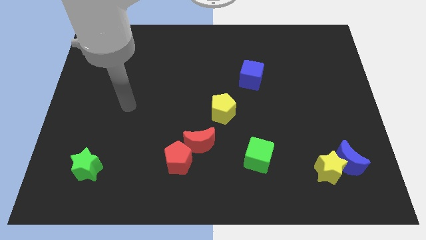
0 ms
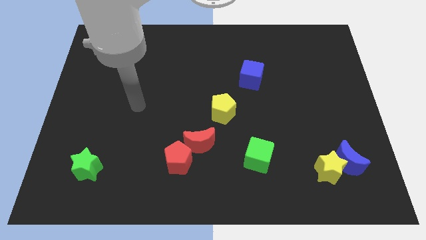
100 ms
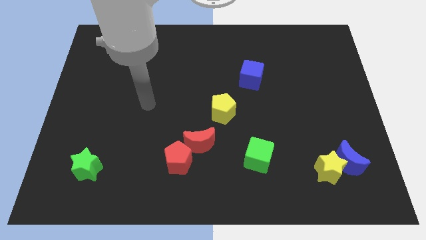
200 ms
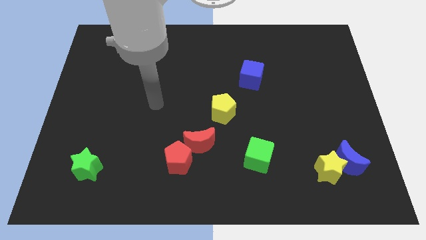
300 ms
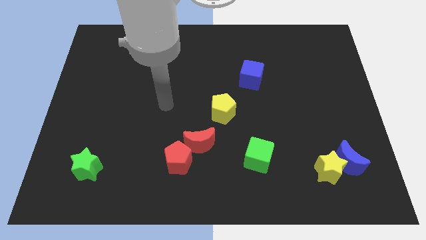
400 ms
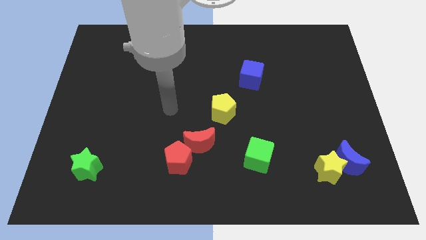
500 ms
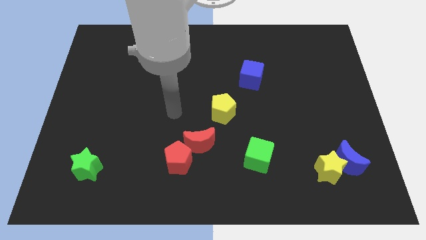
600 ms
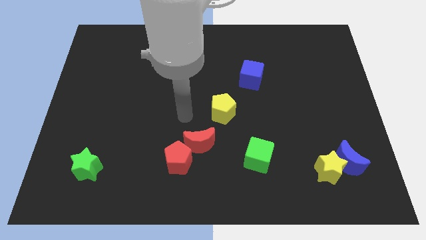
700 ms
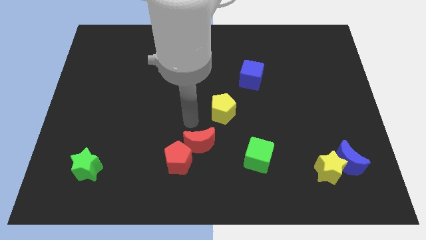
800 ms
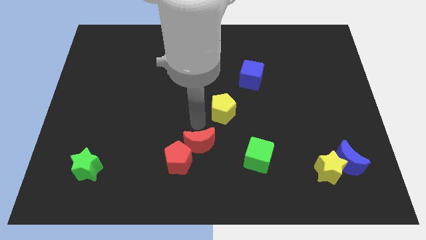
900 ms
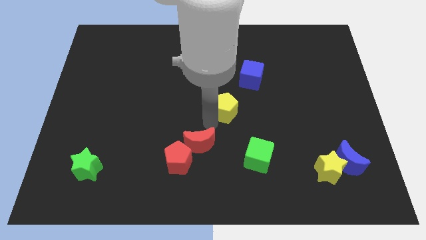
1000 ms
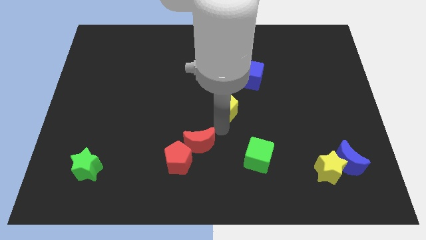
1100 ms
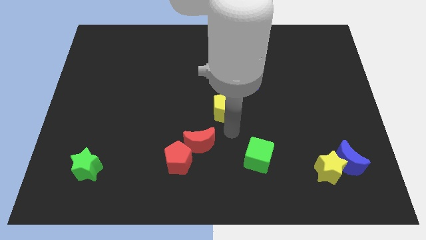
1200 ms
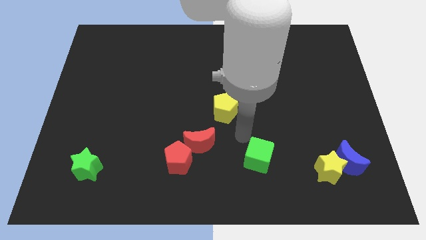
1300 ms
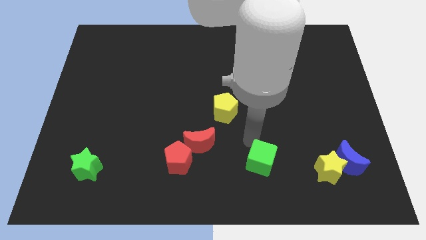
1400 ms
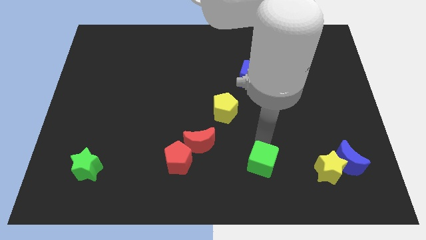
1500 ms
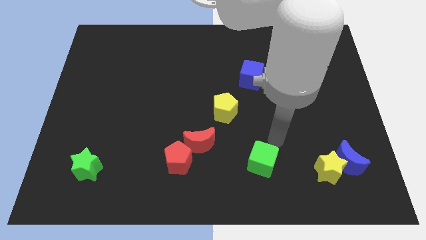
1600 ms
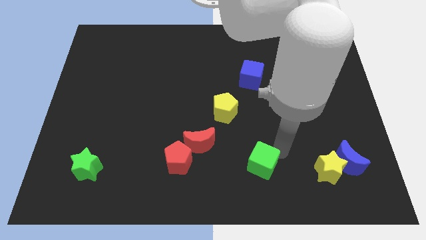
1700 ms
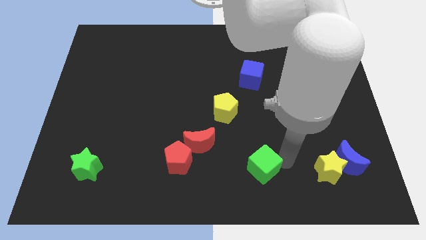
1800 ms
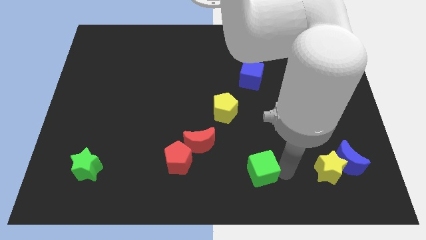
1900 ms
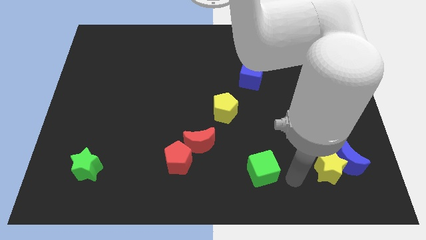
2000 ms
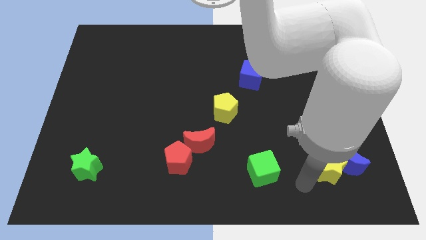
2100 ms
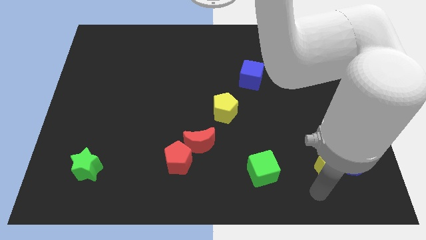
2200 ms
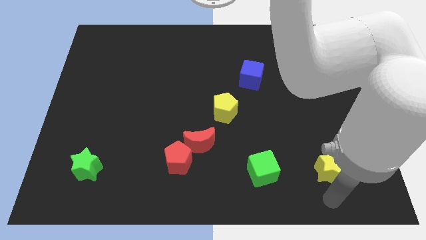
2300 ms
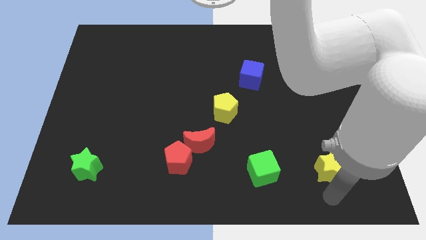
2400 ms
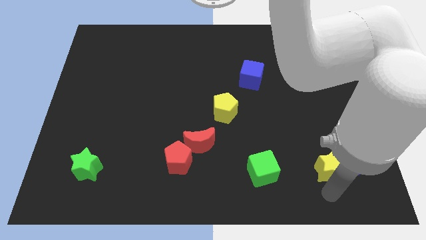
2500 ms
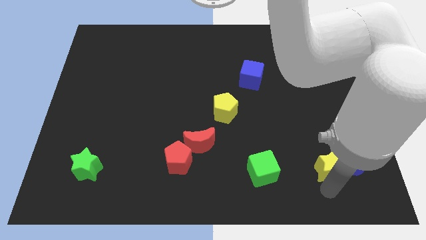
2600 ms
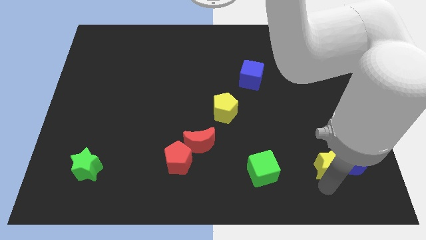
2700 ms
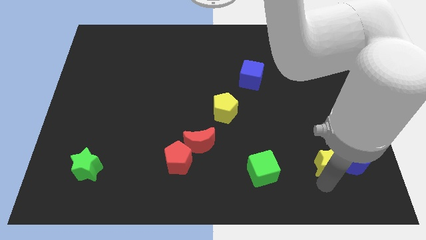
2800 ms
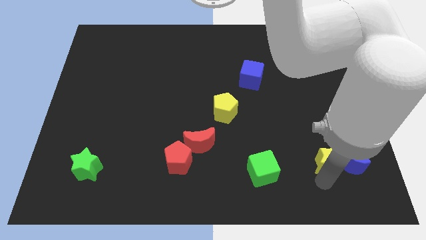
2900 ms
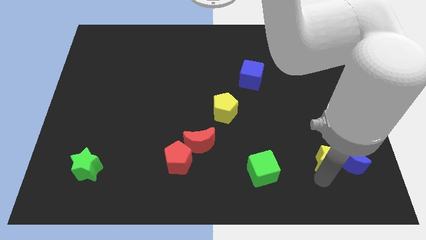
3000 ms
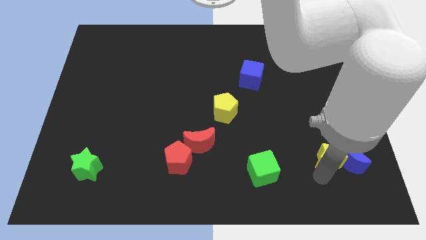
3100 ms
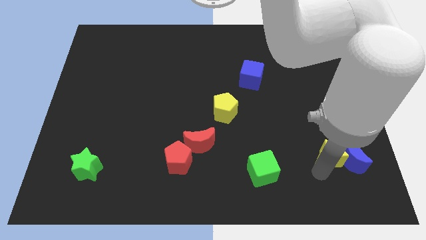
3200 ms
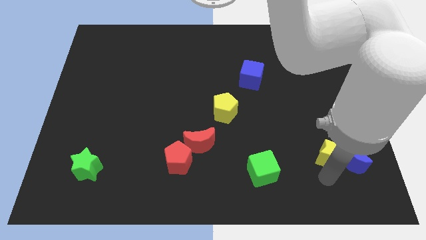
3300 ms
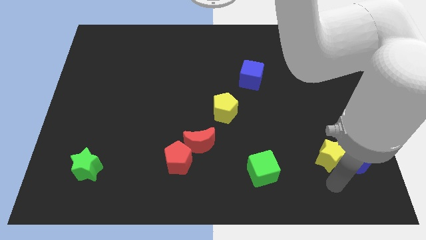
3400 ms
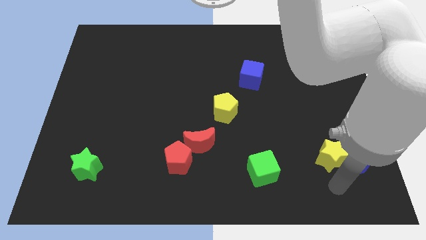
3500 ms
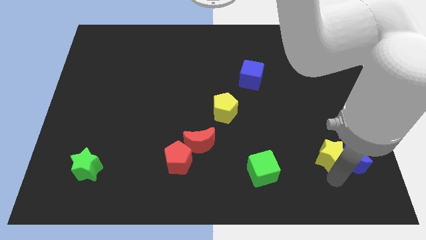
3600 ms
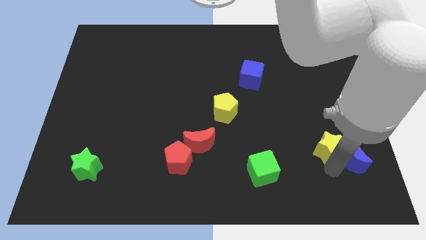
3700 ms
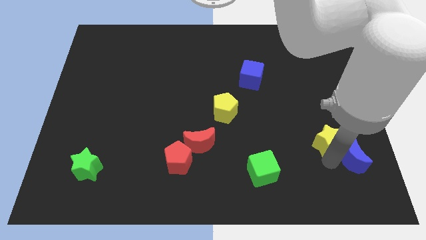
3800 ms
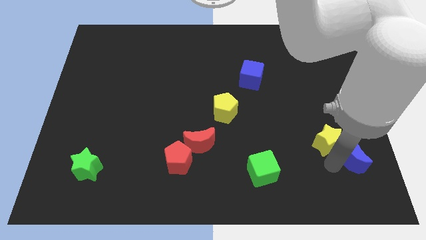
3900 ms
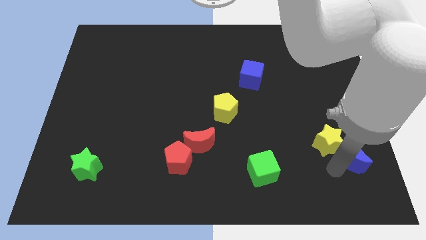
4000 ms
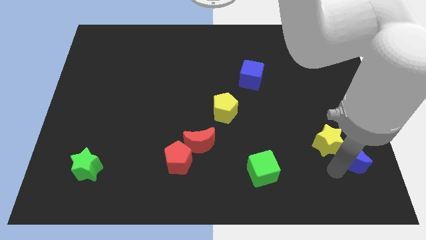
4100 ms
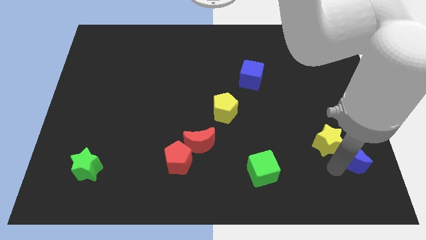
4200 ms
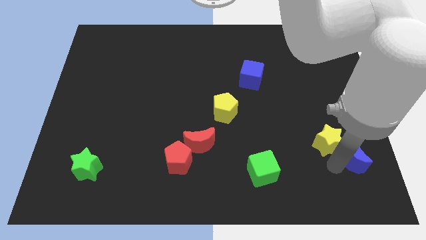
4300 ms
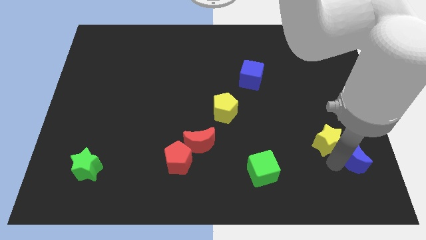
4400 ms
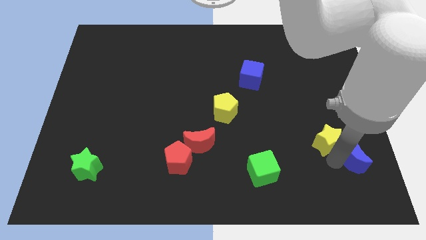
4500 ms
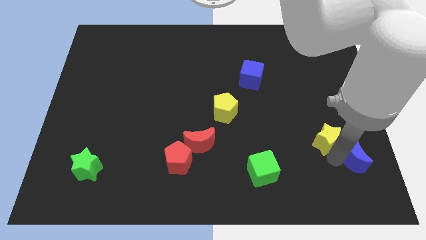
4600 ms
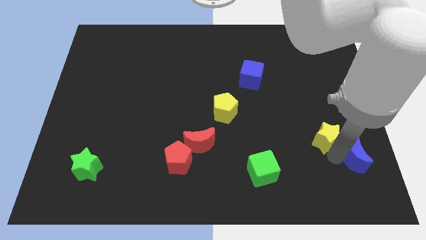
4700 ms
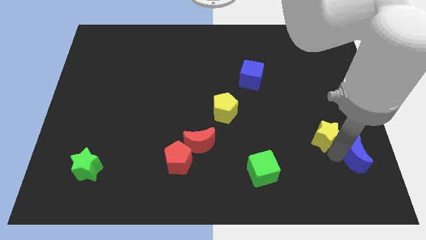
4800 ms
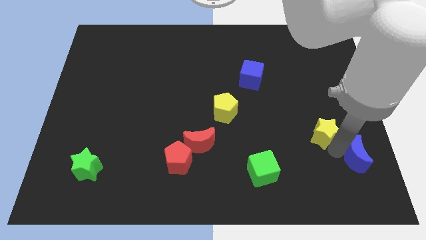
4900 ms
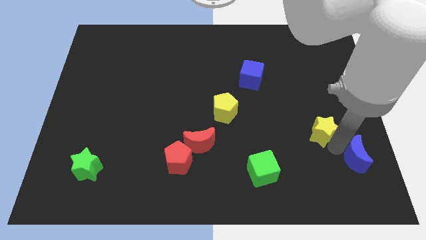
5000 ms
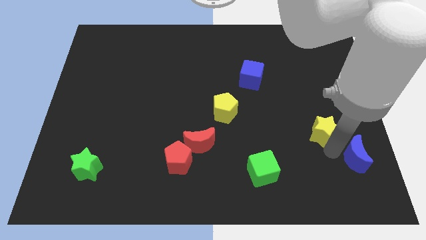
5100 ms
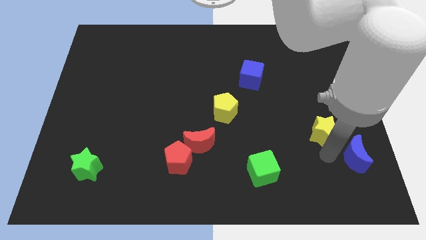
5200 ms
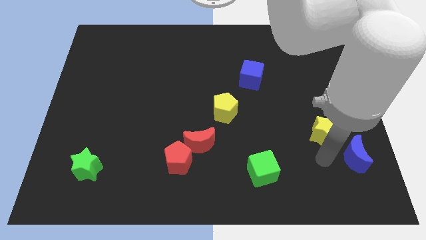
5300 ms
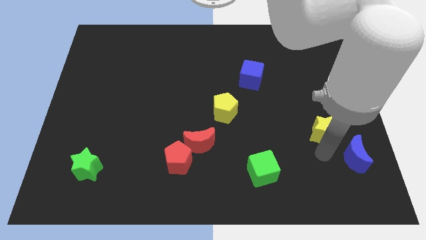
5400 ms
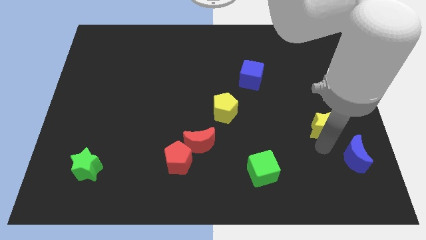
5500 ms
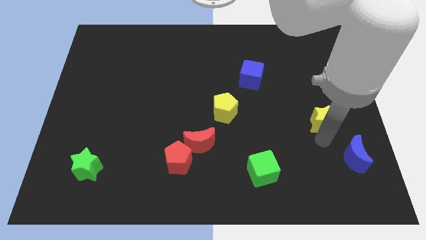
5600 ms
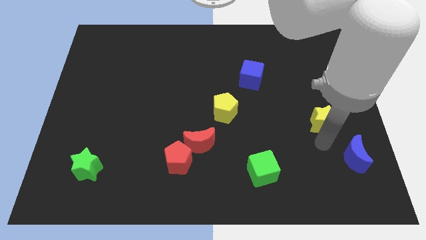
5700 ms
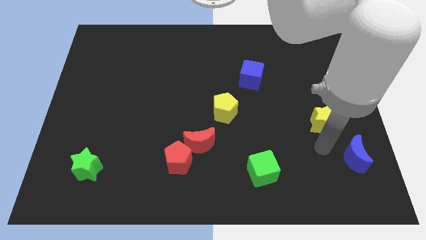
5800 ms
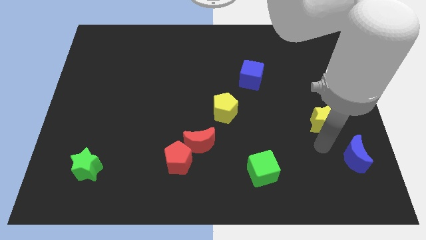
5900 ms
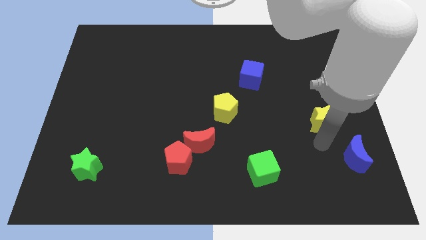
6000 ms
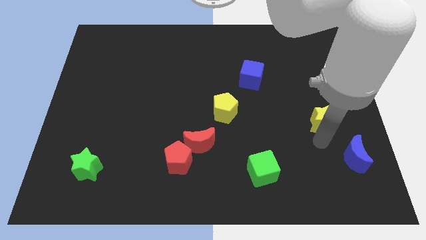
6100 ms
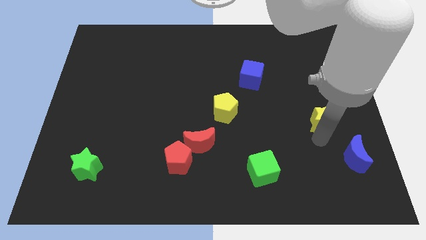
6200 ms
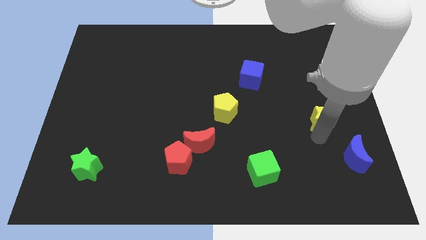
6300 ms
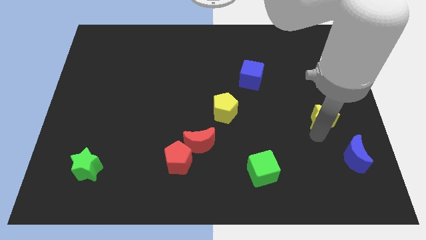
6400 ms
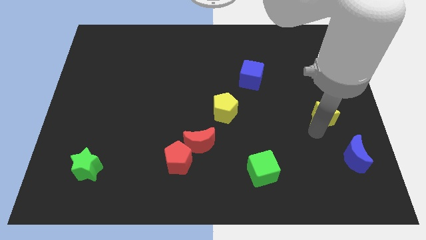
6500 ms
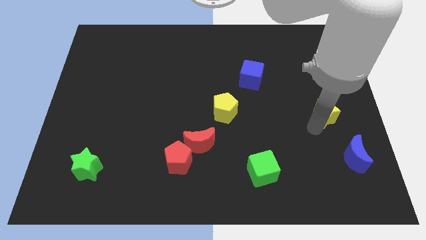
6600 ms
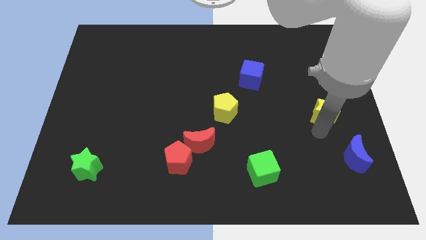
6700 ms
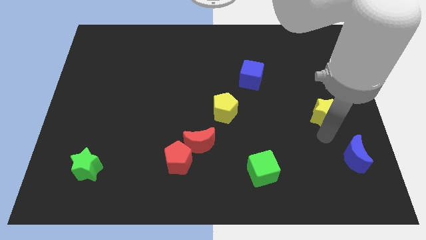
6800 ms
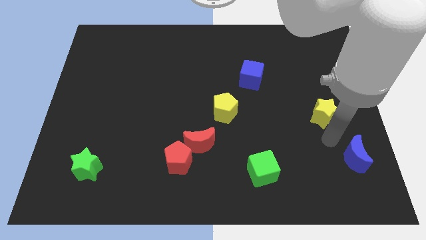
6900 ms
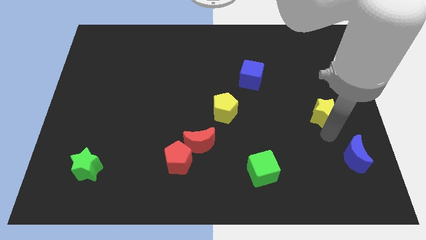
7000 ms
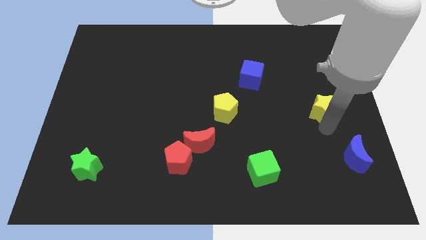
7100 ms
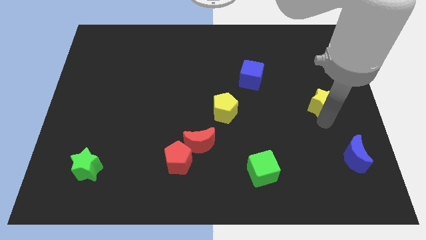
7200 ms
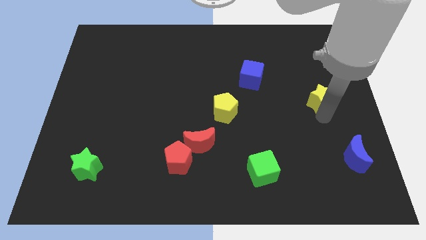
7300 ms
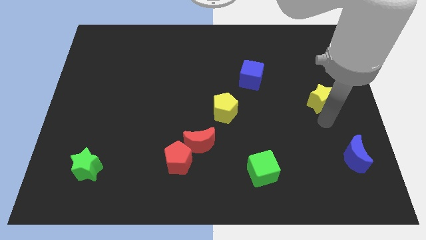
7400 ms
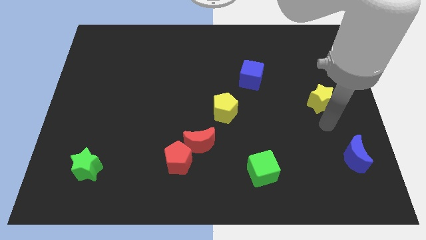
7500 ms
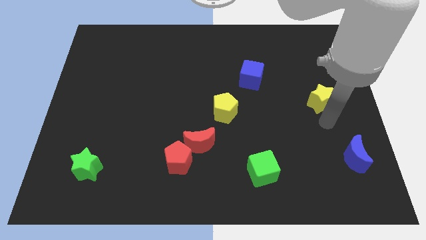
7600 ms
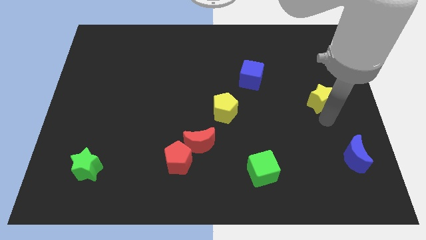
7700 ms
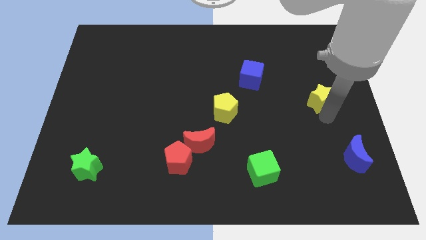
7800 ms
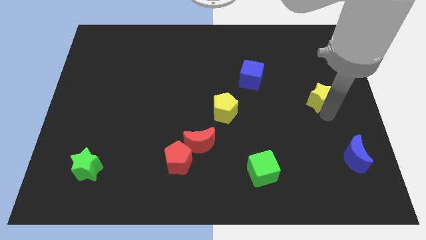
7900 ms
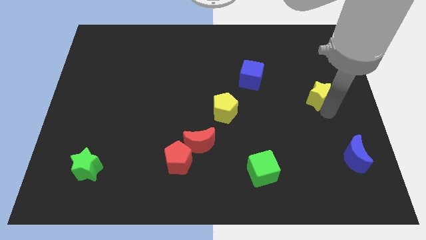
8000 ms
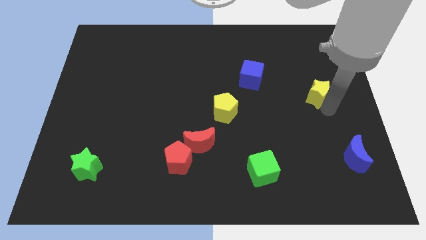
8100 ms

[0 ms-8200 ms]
push the yellow star up

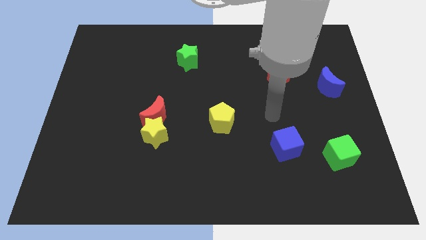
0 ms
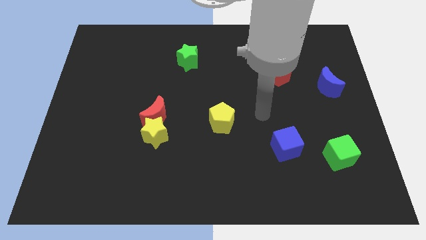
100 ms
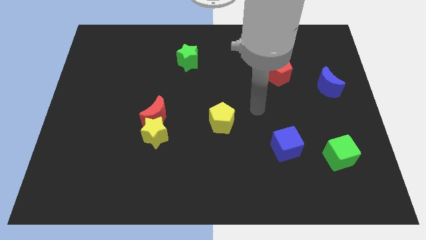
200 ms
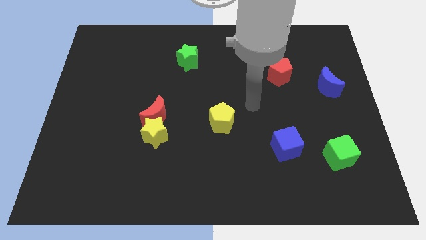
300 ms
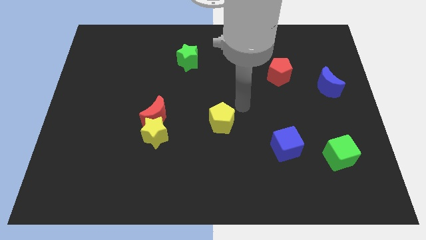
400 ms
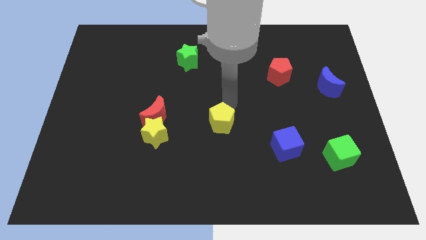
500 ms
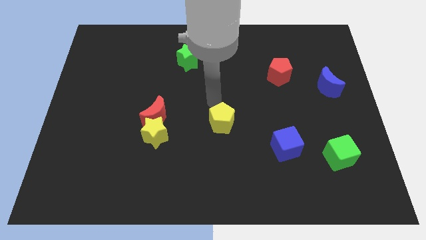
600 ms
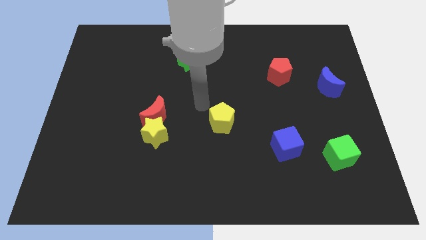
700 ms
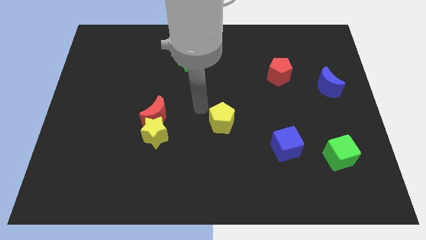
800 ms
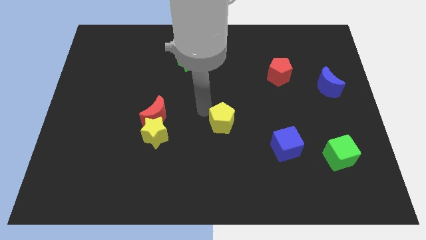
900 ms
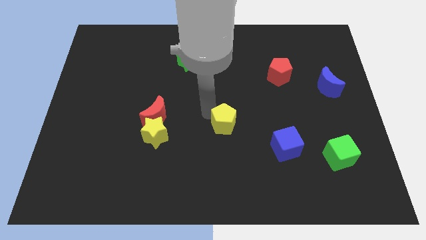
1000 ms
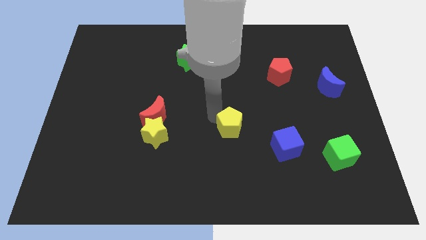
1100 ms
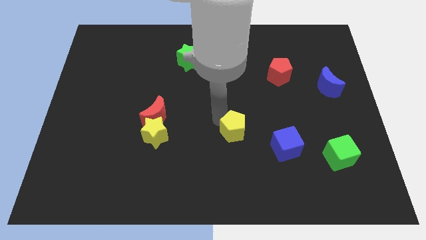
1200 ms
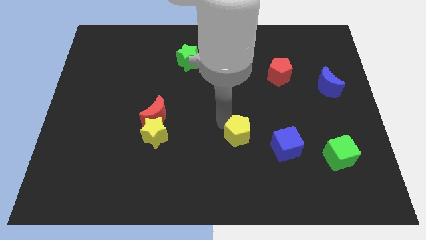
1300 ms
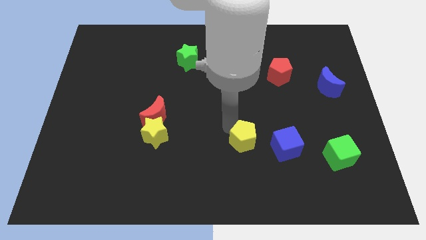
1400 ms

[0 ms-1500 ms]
move the yellow pentagon slightly diagonally downwards and to the right
